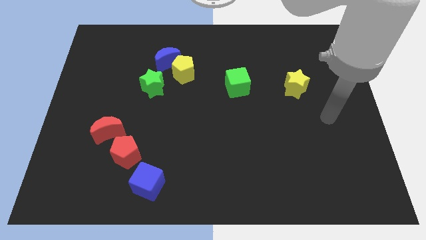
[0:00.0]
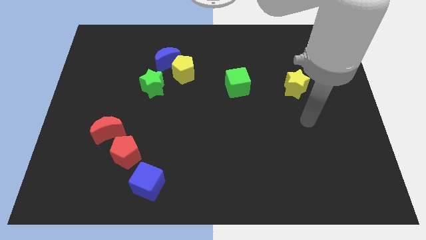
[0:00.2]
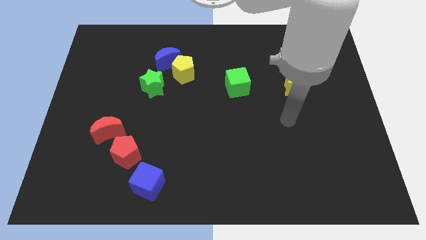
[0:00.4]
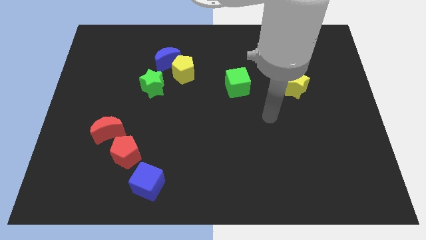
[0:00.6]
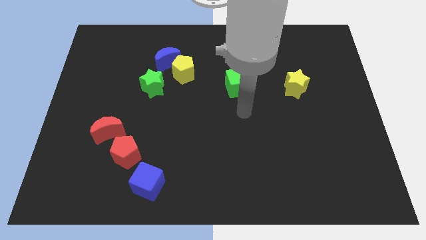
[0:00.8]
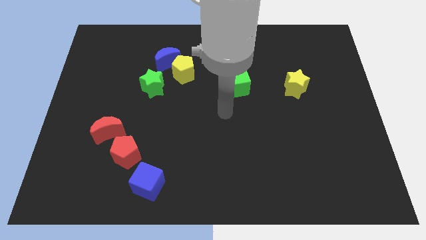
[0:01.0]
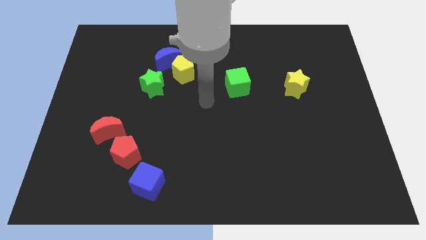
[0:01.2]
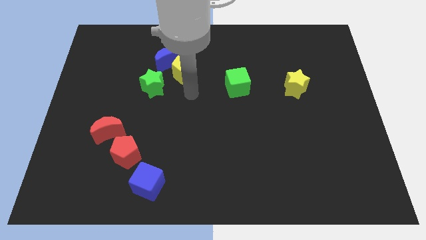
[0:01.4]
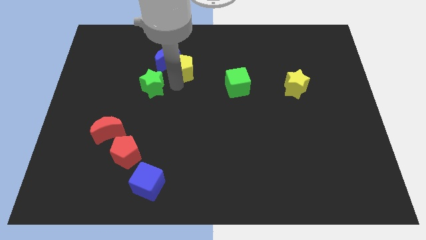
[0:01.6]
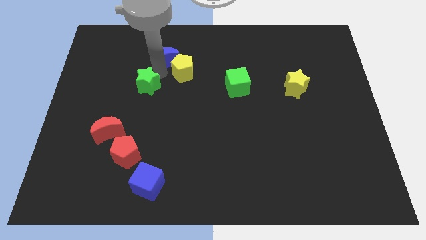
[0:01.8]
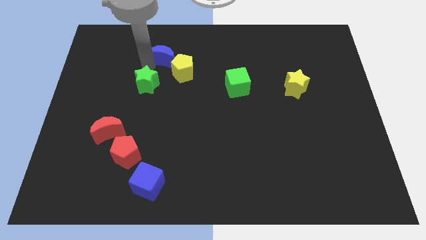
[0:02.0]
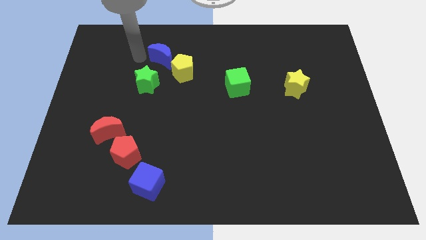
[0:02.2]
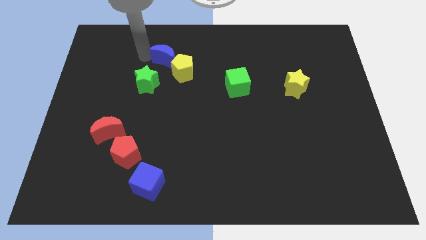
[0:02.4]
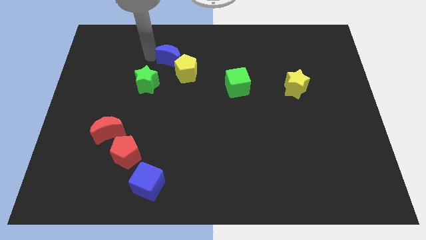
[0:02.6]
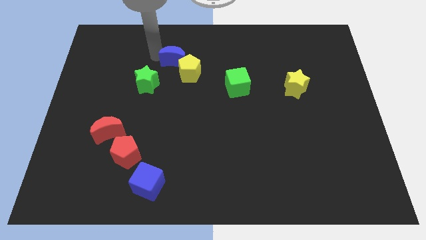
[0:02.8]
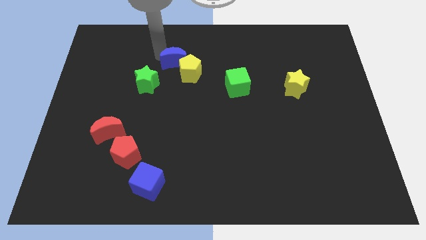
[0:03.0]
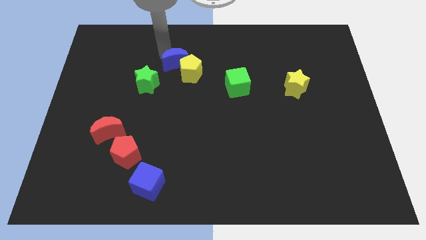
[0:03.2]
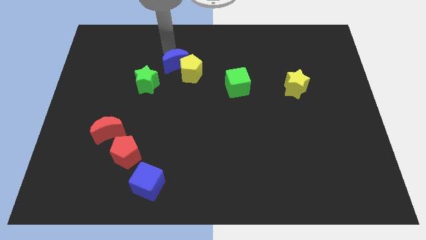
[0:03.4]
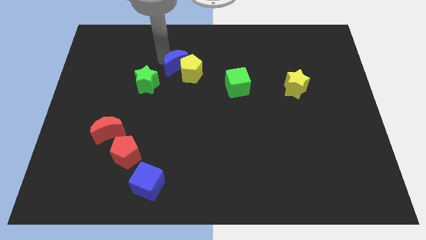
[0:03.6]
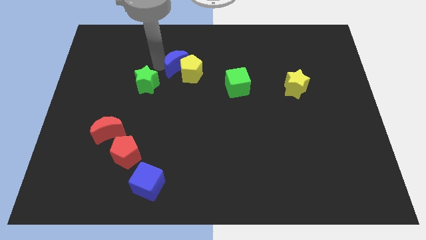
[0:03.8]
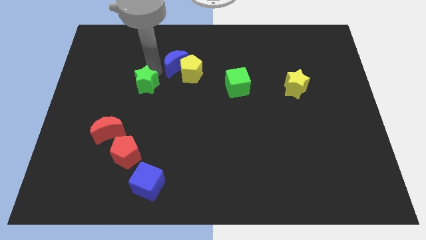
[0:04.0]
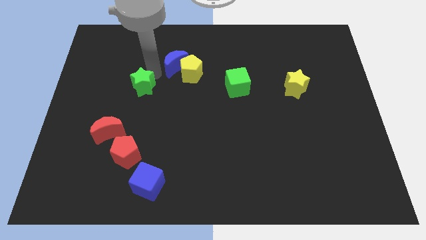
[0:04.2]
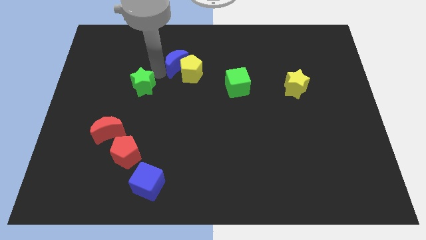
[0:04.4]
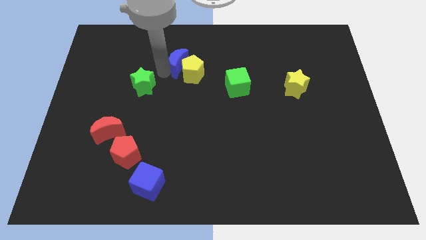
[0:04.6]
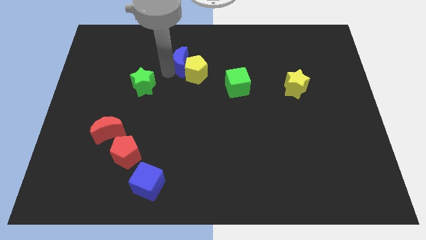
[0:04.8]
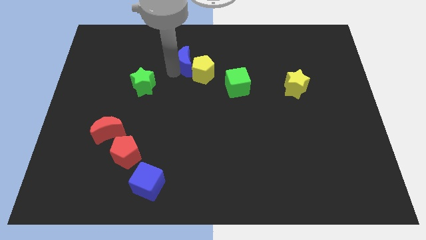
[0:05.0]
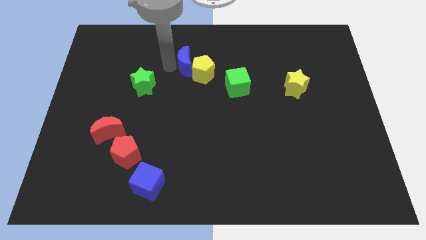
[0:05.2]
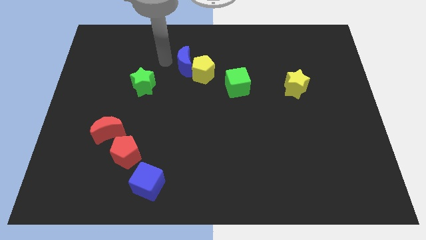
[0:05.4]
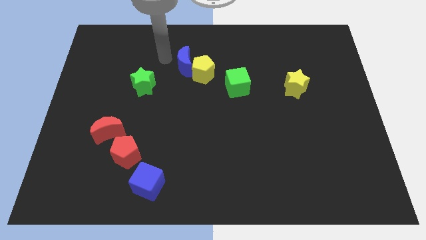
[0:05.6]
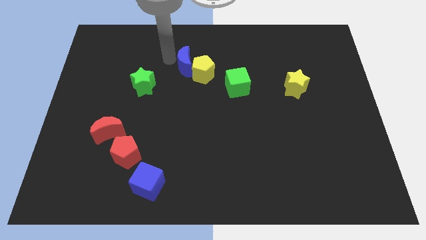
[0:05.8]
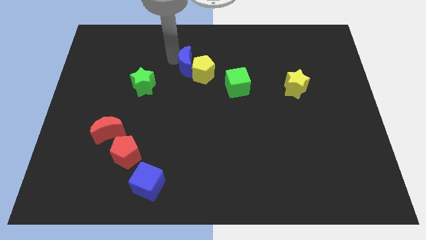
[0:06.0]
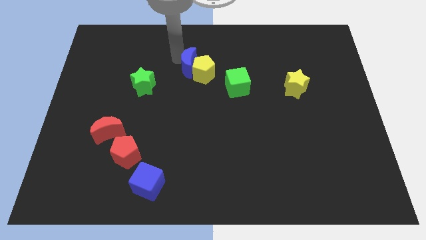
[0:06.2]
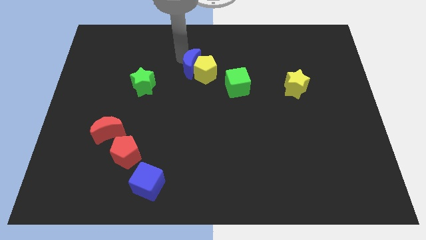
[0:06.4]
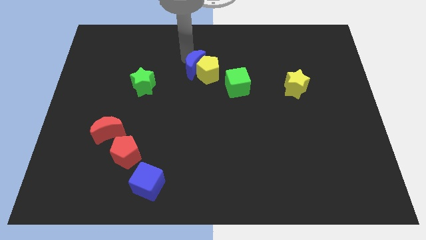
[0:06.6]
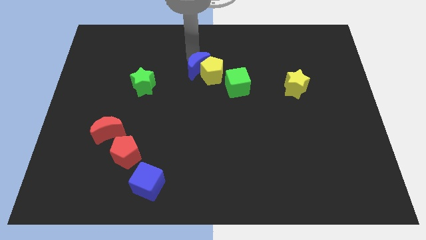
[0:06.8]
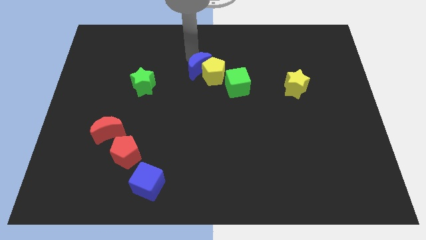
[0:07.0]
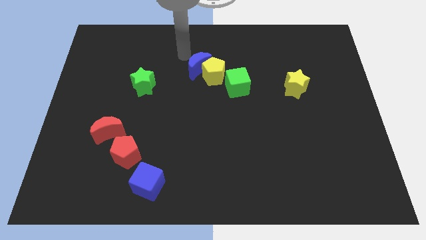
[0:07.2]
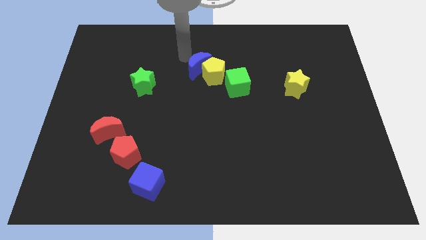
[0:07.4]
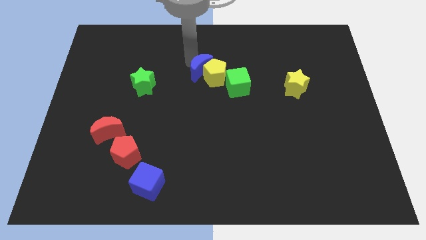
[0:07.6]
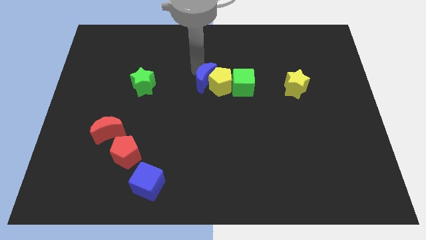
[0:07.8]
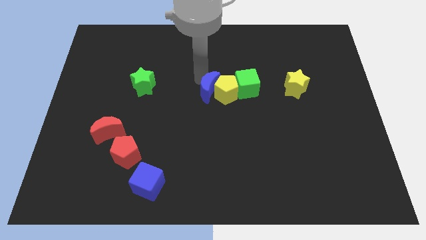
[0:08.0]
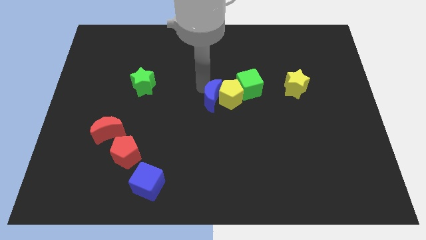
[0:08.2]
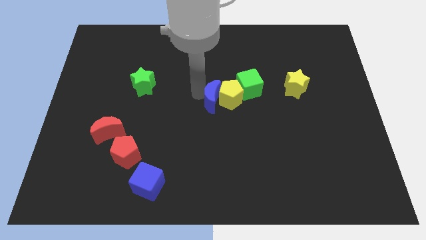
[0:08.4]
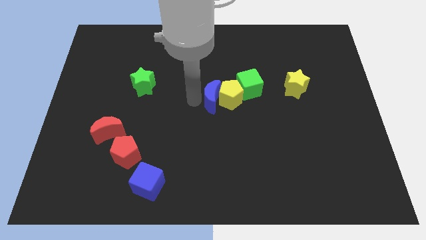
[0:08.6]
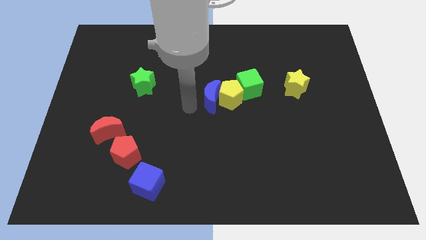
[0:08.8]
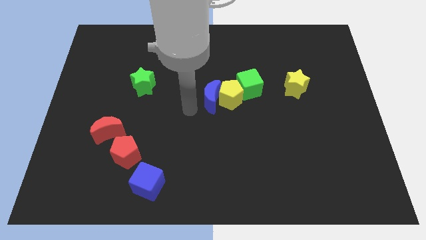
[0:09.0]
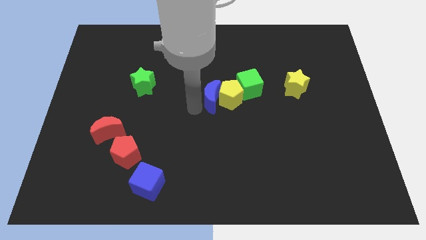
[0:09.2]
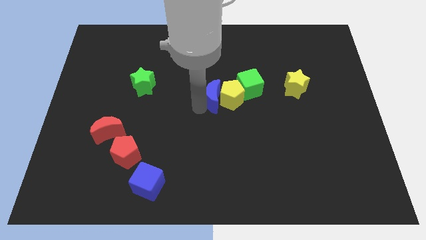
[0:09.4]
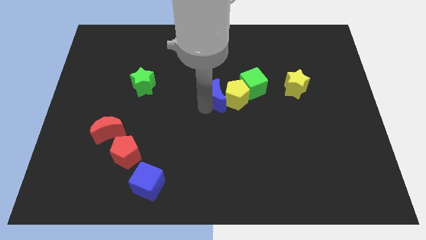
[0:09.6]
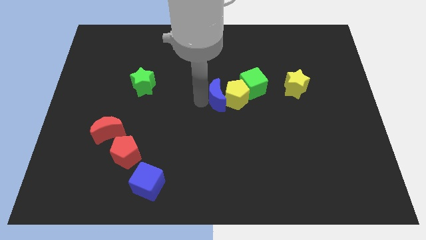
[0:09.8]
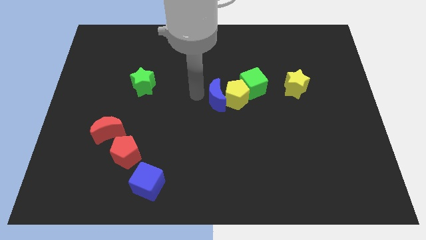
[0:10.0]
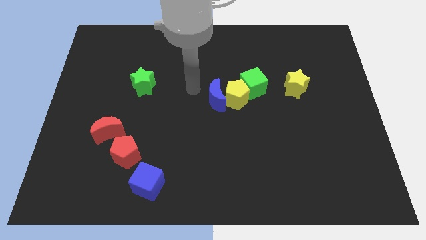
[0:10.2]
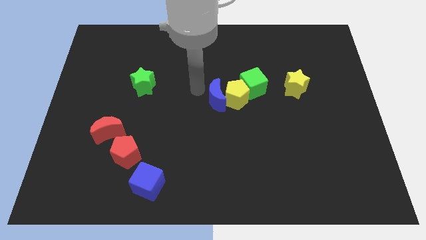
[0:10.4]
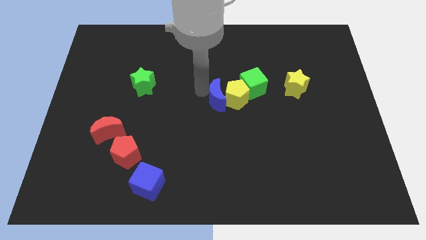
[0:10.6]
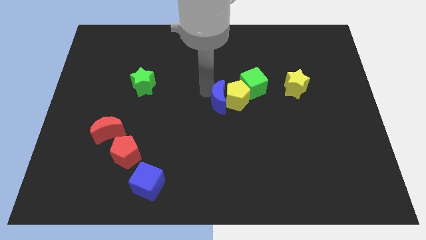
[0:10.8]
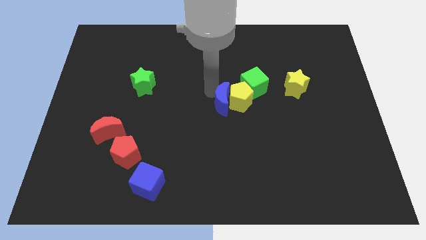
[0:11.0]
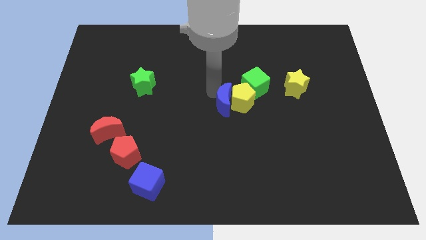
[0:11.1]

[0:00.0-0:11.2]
push the blue moon downwards and right

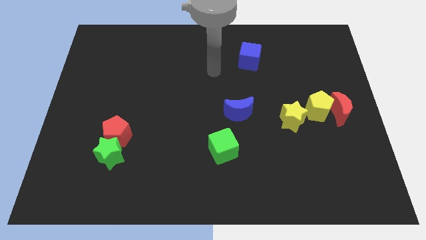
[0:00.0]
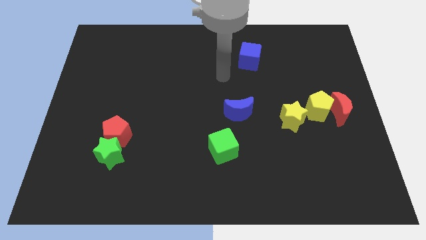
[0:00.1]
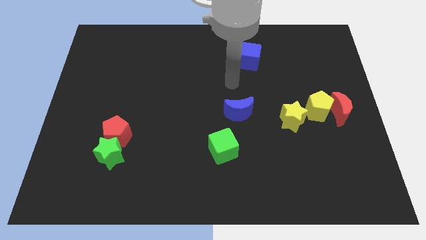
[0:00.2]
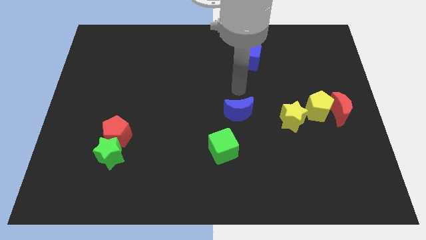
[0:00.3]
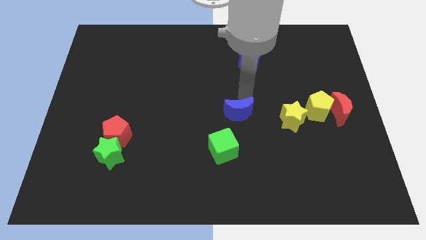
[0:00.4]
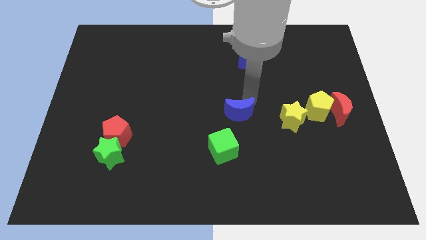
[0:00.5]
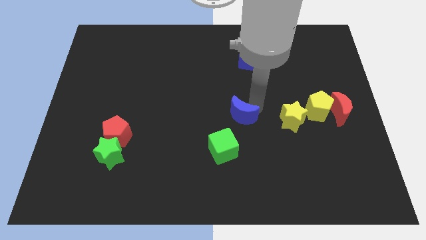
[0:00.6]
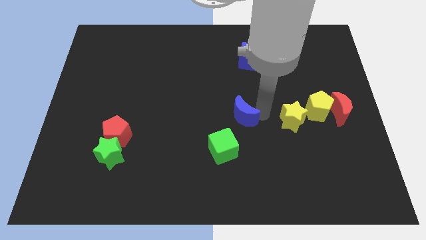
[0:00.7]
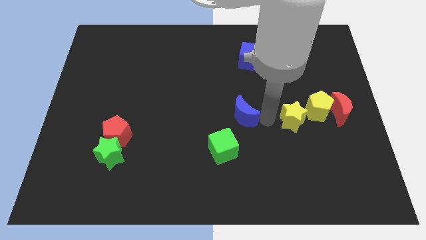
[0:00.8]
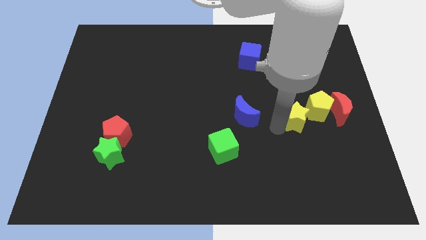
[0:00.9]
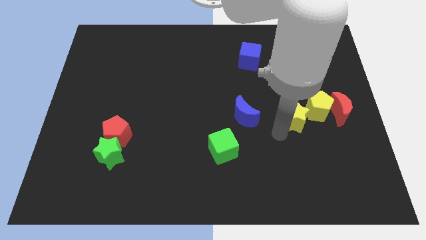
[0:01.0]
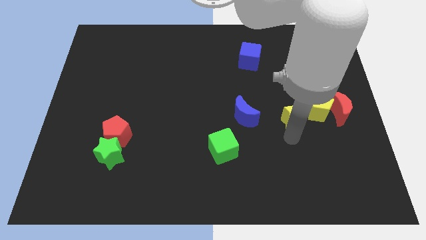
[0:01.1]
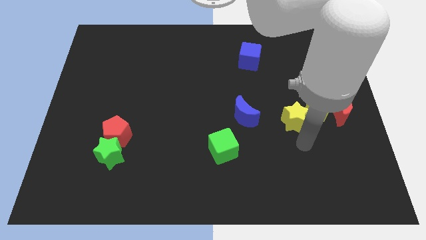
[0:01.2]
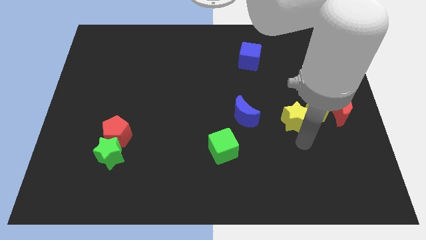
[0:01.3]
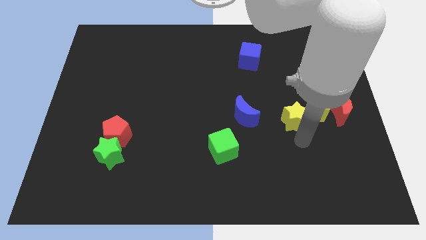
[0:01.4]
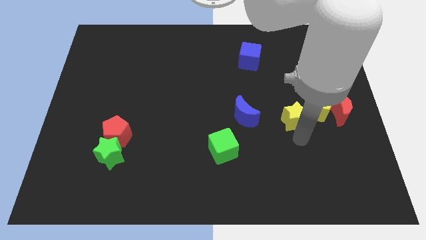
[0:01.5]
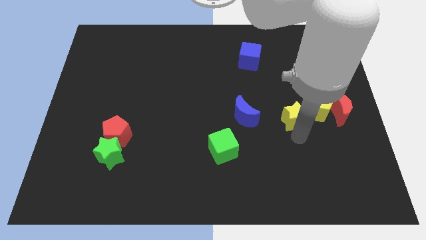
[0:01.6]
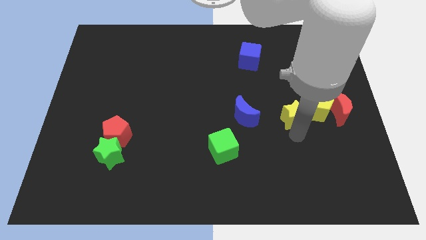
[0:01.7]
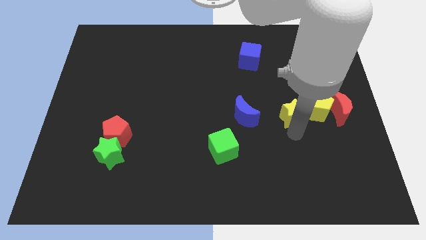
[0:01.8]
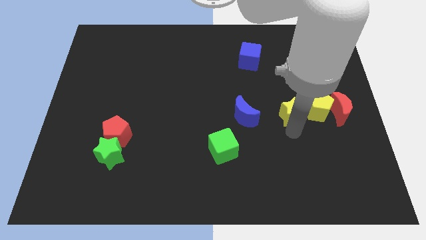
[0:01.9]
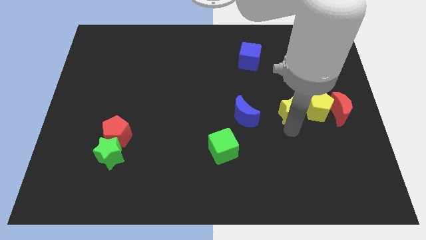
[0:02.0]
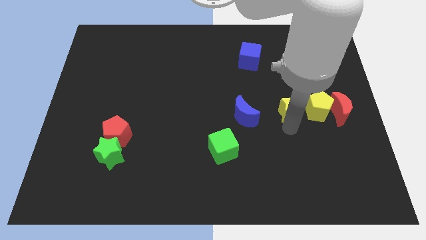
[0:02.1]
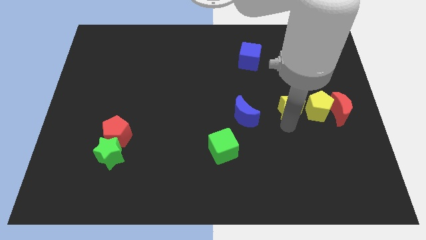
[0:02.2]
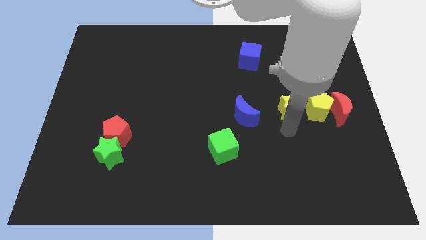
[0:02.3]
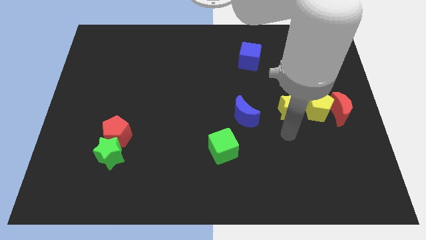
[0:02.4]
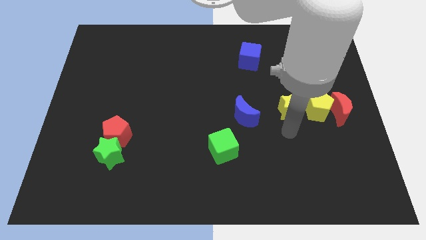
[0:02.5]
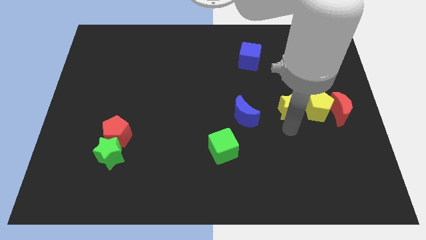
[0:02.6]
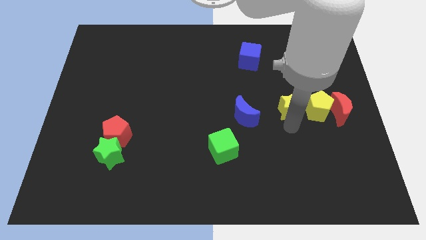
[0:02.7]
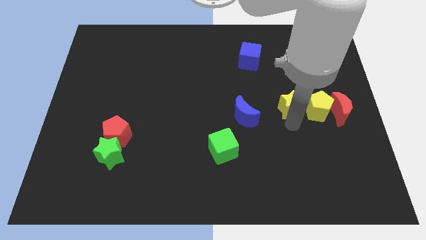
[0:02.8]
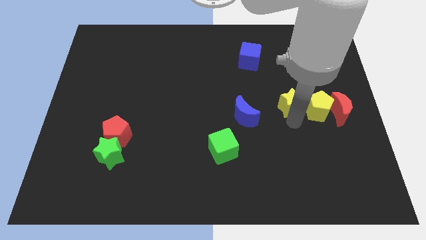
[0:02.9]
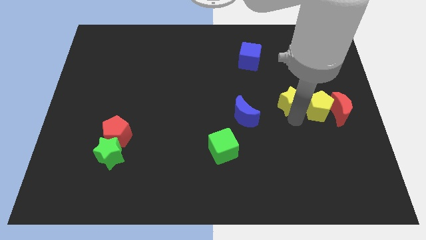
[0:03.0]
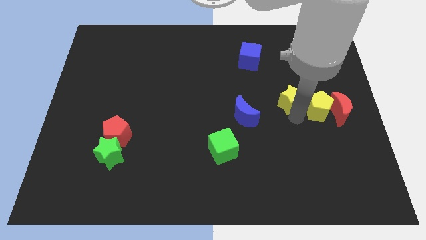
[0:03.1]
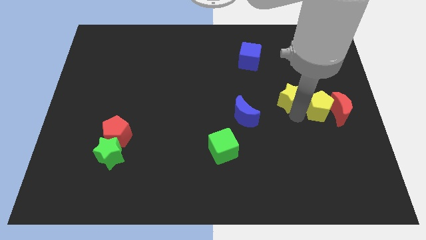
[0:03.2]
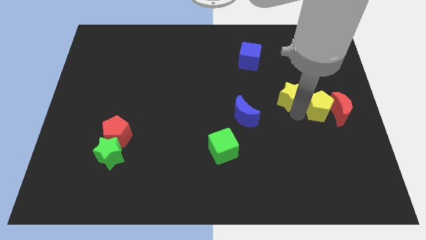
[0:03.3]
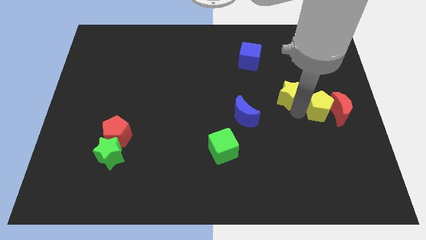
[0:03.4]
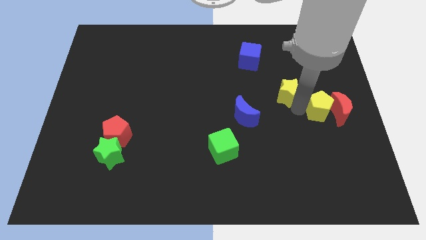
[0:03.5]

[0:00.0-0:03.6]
push the yellow star up a little
